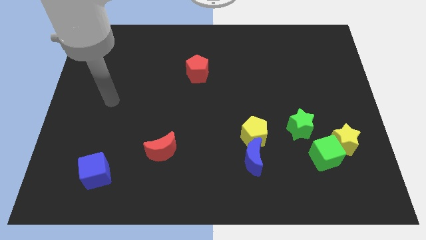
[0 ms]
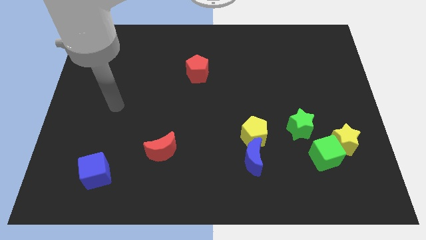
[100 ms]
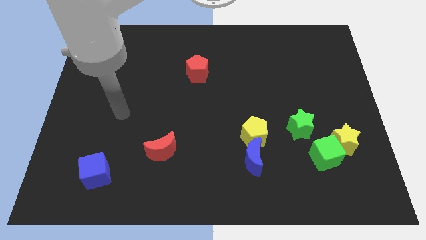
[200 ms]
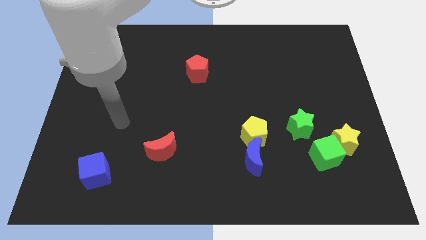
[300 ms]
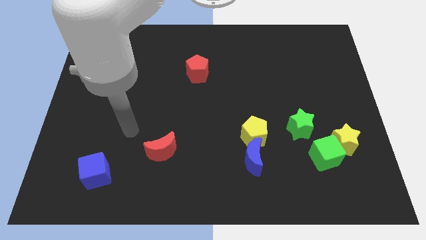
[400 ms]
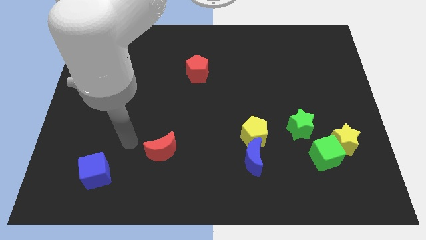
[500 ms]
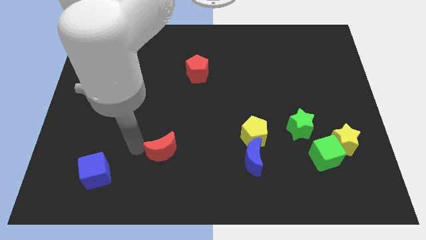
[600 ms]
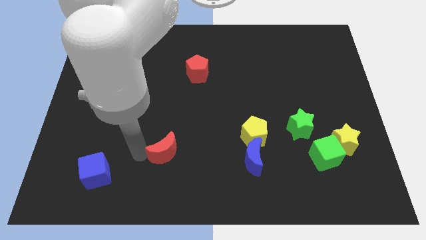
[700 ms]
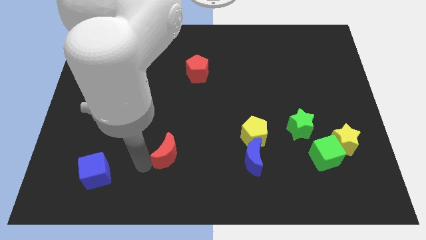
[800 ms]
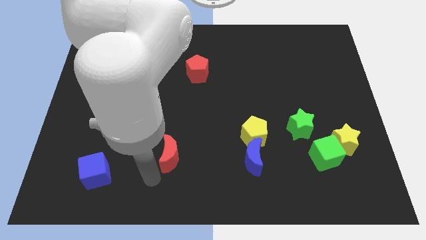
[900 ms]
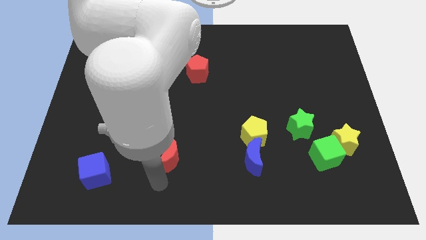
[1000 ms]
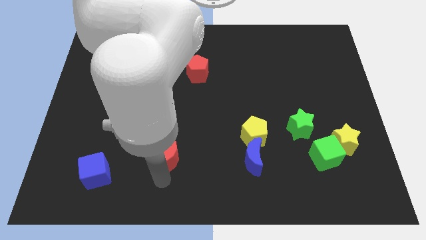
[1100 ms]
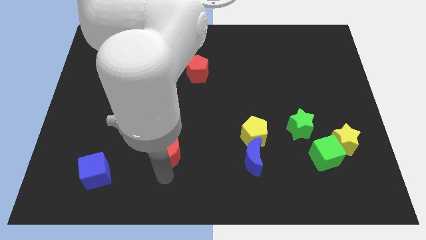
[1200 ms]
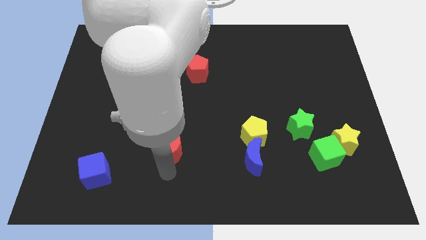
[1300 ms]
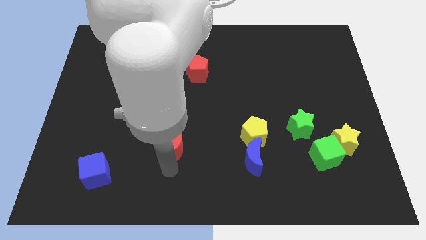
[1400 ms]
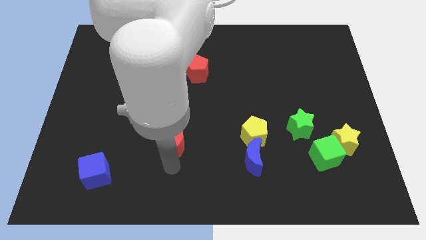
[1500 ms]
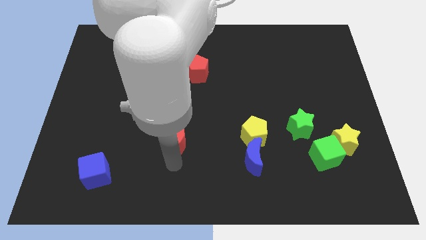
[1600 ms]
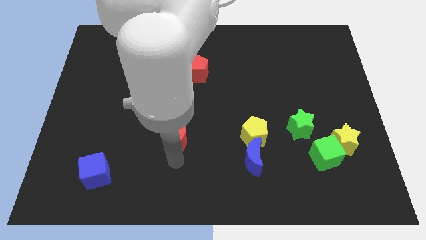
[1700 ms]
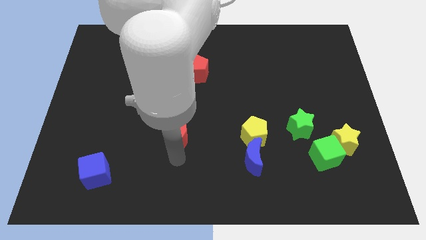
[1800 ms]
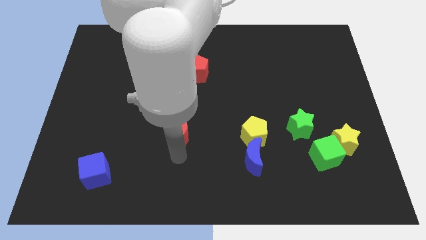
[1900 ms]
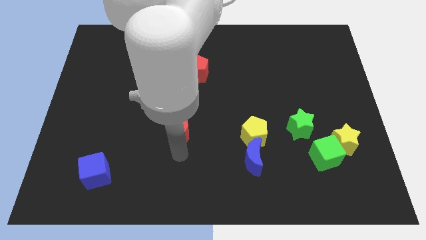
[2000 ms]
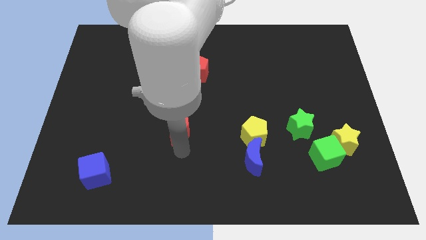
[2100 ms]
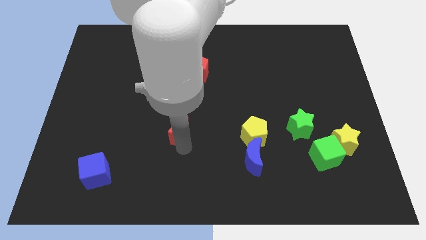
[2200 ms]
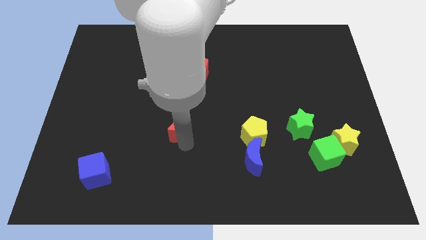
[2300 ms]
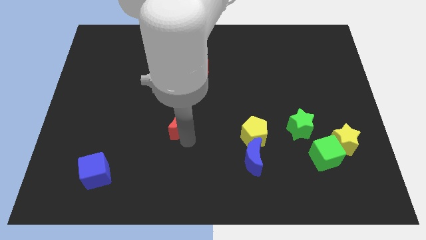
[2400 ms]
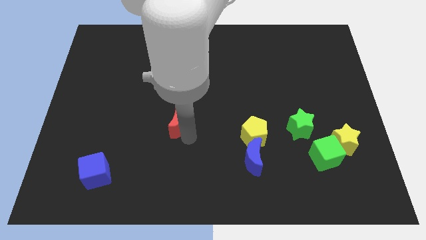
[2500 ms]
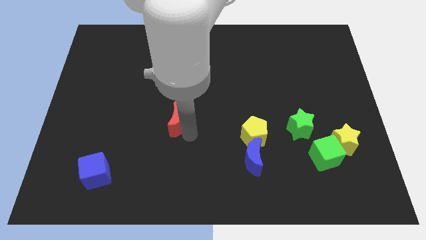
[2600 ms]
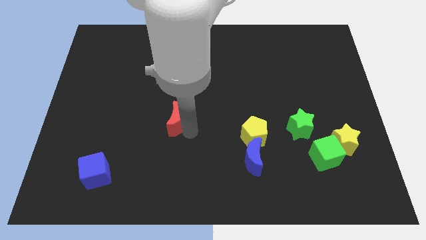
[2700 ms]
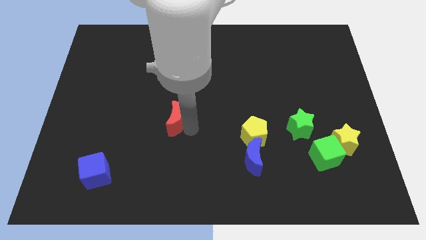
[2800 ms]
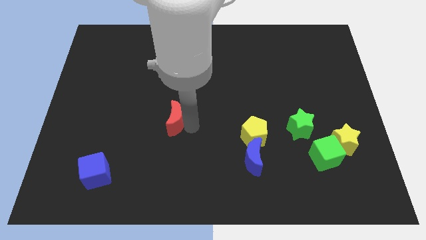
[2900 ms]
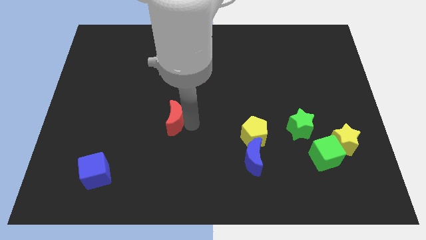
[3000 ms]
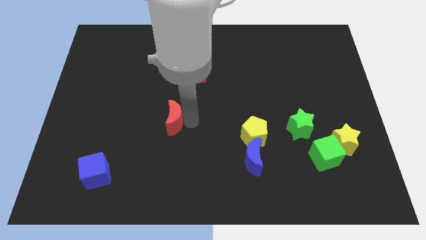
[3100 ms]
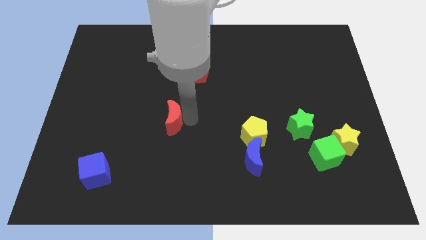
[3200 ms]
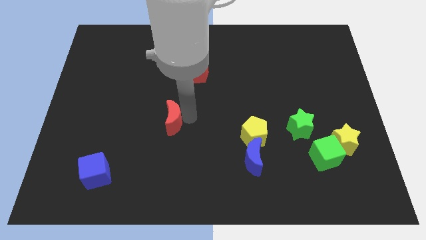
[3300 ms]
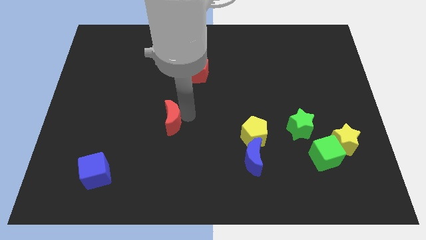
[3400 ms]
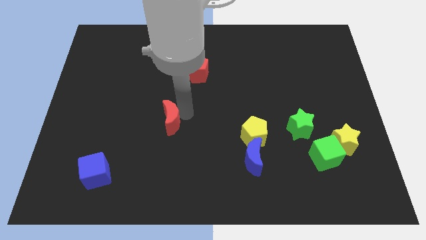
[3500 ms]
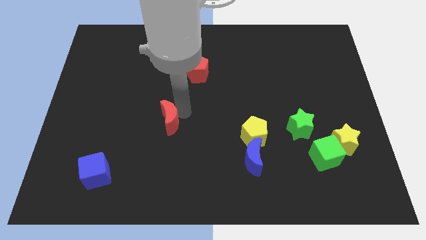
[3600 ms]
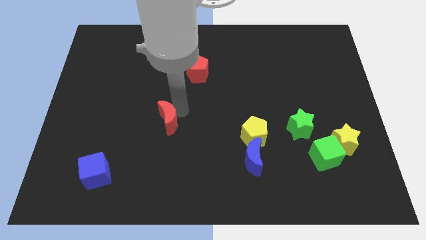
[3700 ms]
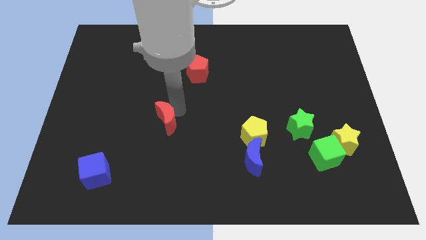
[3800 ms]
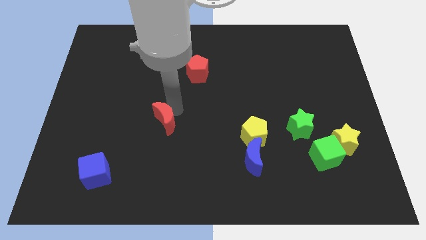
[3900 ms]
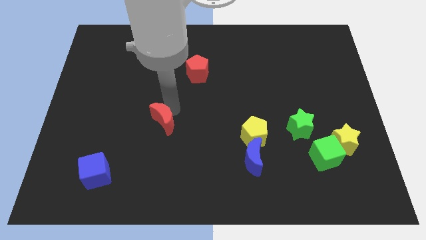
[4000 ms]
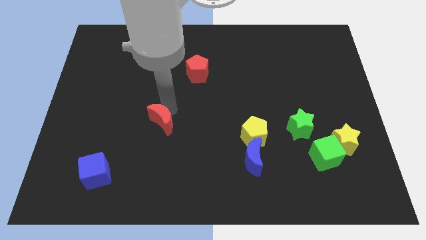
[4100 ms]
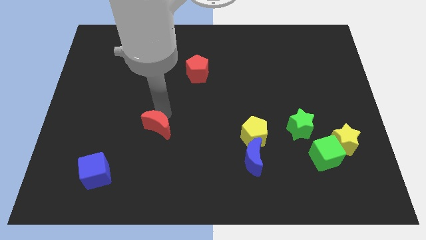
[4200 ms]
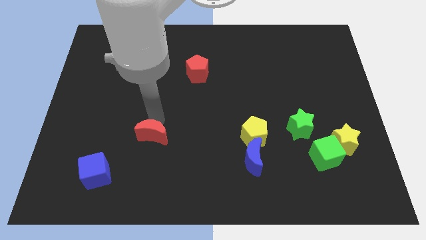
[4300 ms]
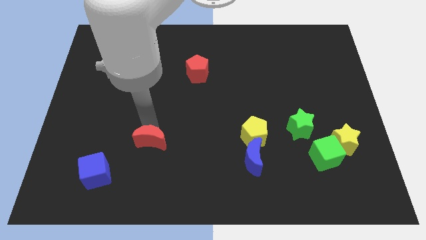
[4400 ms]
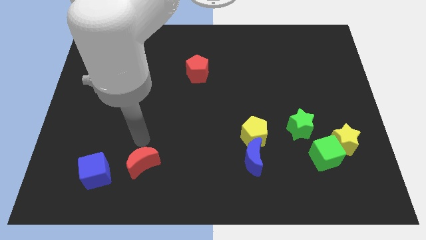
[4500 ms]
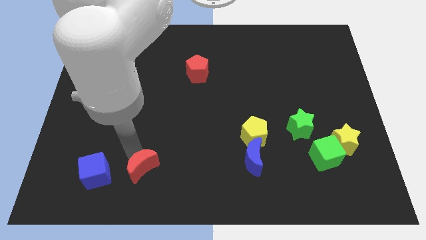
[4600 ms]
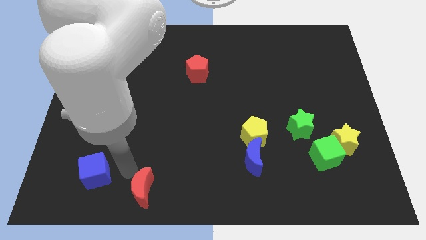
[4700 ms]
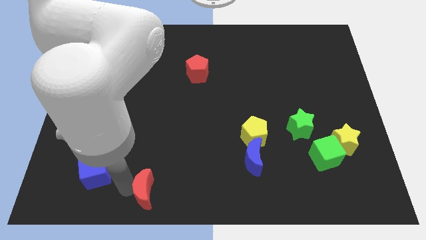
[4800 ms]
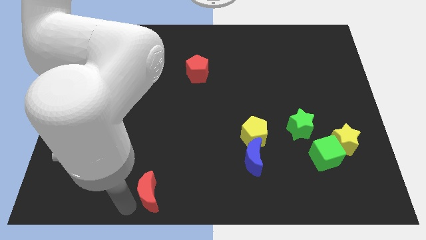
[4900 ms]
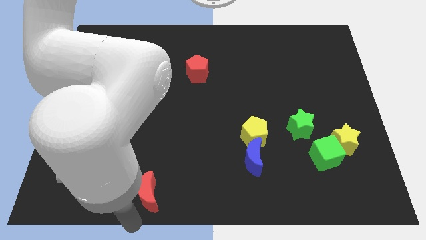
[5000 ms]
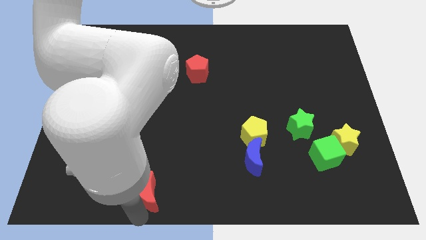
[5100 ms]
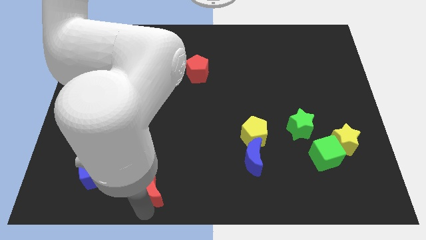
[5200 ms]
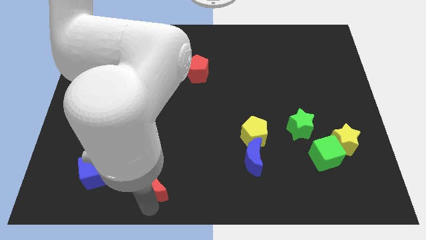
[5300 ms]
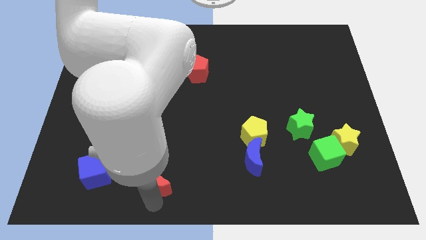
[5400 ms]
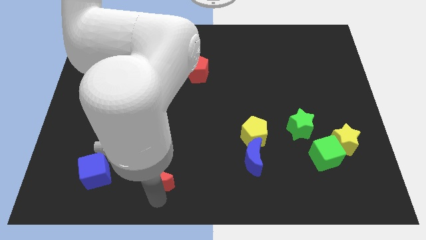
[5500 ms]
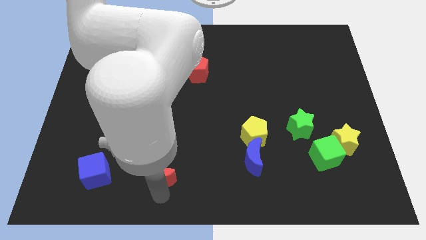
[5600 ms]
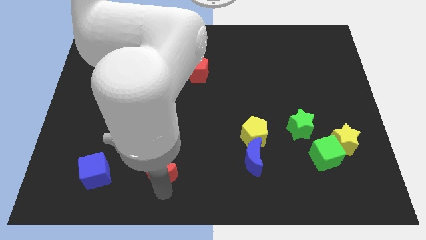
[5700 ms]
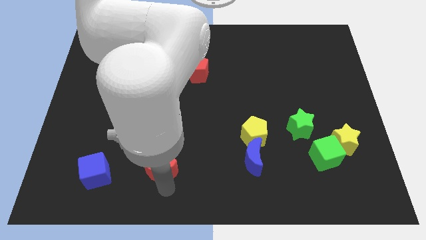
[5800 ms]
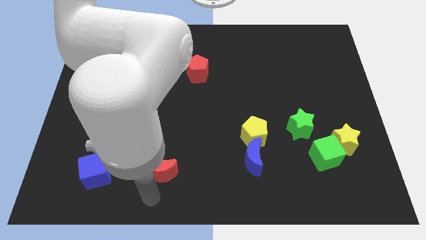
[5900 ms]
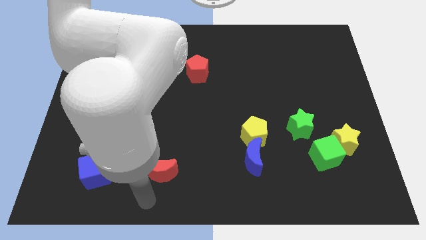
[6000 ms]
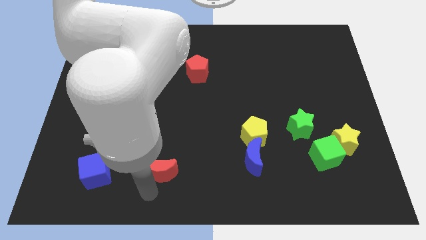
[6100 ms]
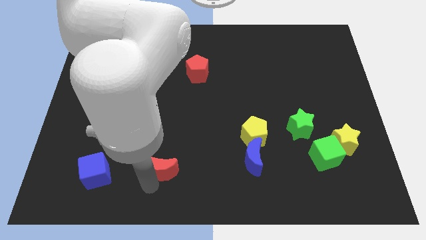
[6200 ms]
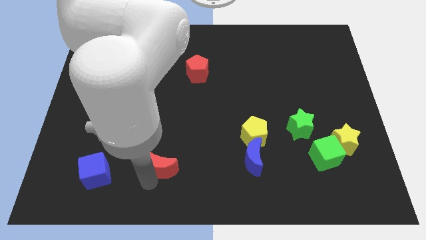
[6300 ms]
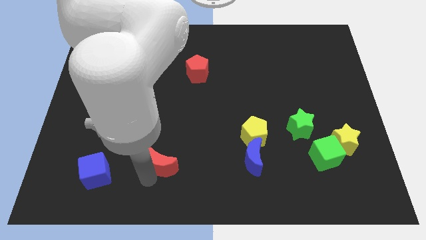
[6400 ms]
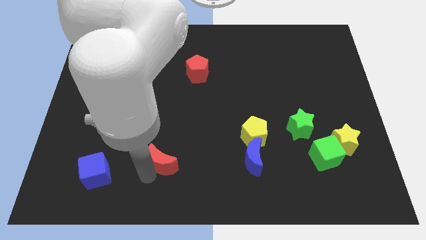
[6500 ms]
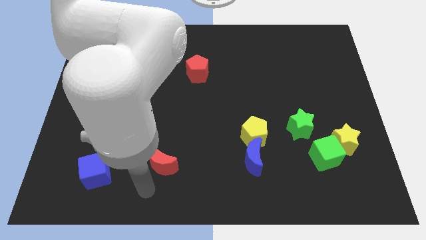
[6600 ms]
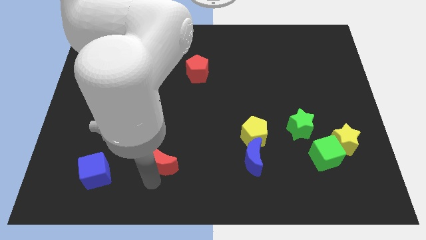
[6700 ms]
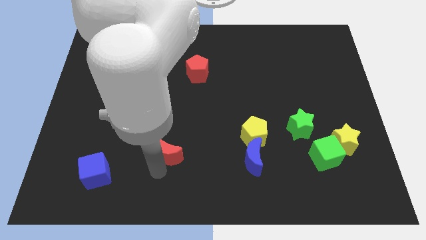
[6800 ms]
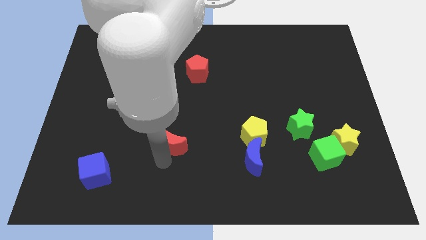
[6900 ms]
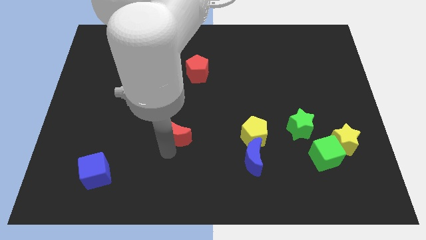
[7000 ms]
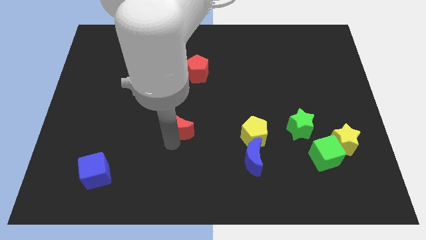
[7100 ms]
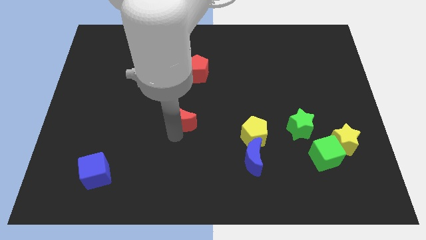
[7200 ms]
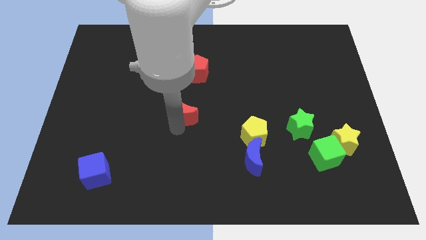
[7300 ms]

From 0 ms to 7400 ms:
move the red moon below the red pentagon
